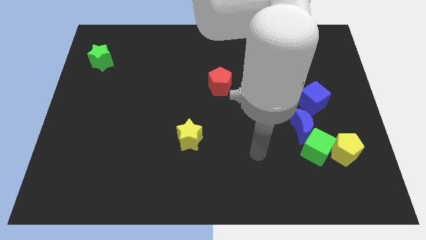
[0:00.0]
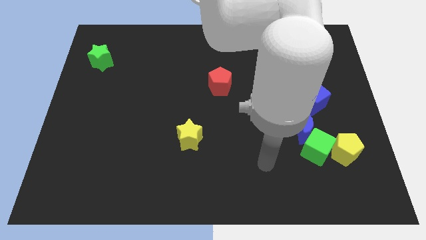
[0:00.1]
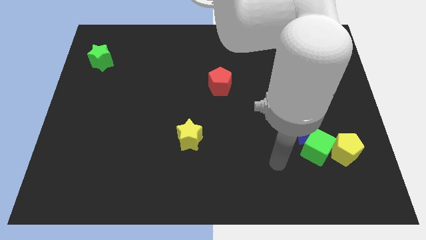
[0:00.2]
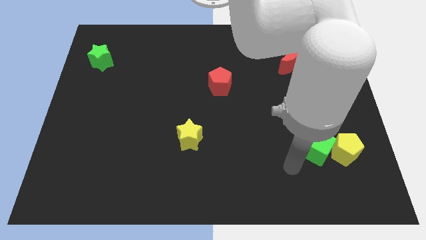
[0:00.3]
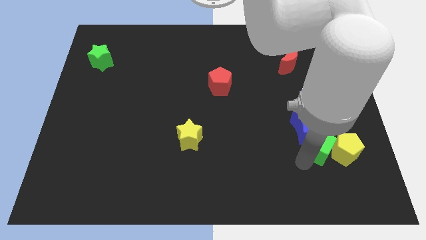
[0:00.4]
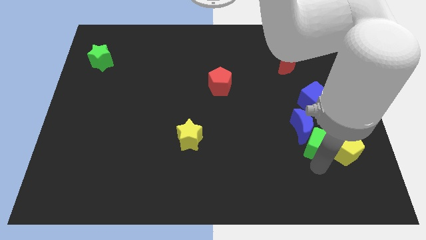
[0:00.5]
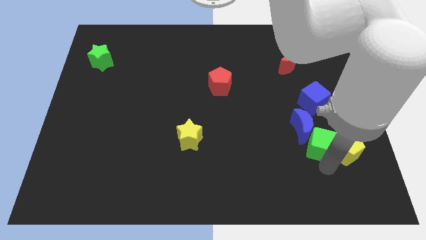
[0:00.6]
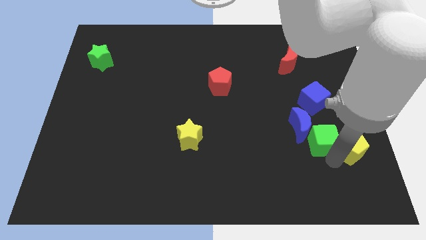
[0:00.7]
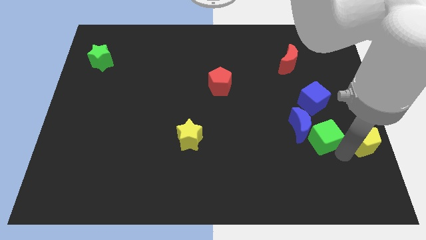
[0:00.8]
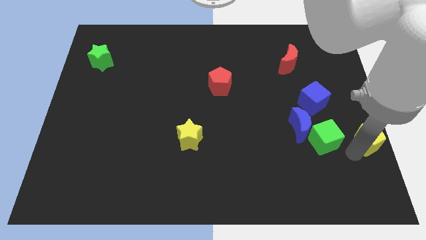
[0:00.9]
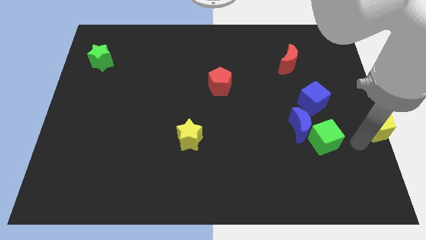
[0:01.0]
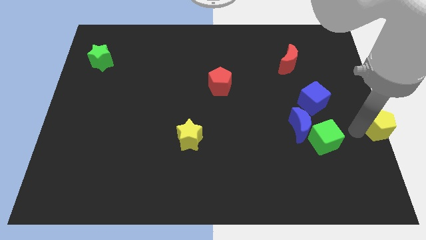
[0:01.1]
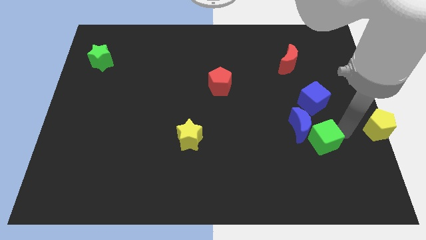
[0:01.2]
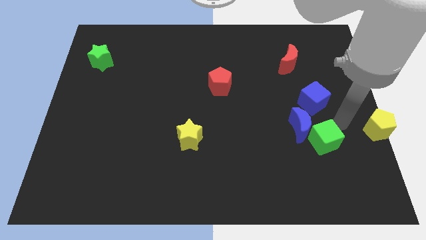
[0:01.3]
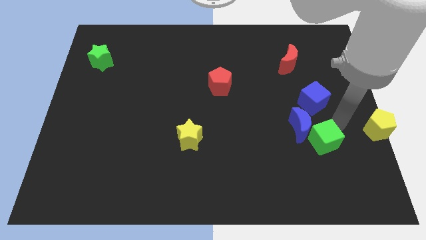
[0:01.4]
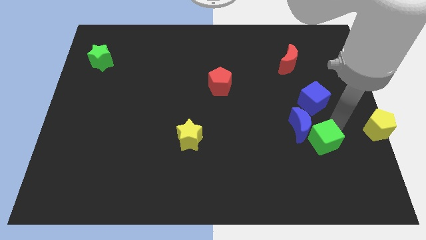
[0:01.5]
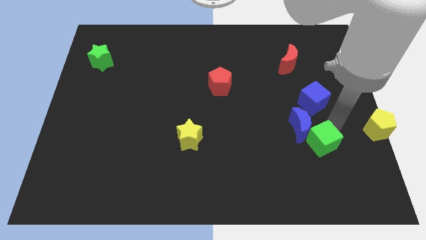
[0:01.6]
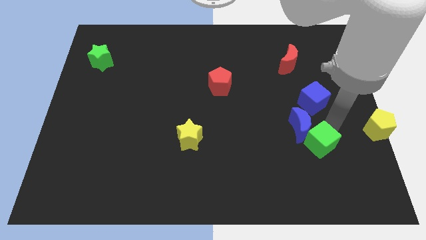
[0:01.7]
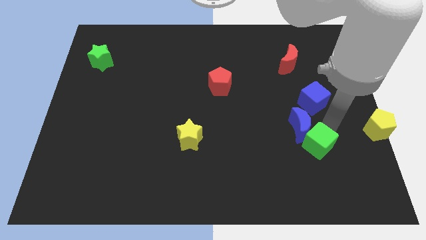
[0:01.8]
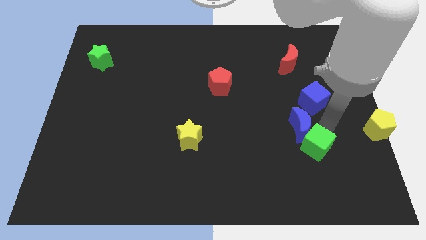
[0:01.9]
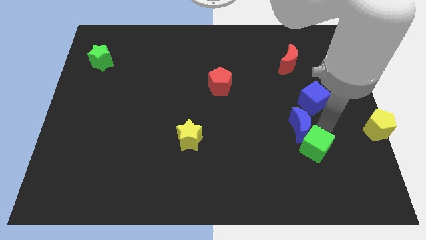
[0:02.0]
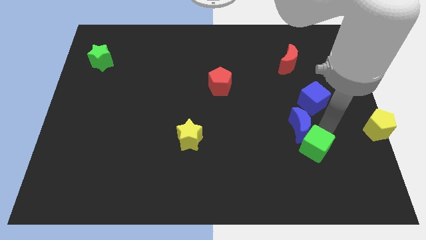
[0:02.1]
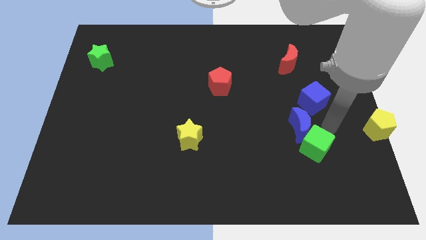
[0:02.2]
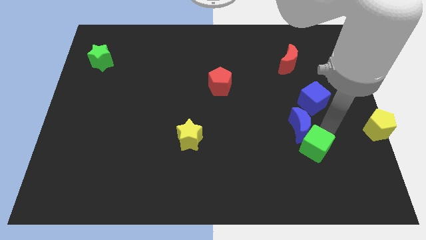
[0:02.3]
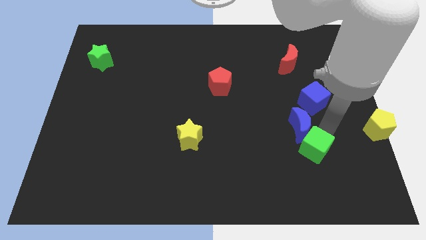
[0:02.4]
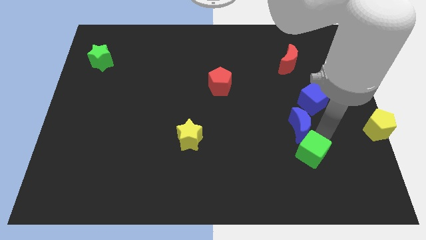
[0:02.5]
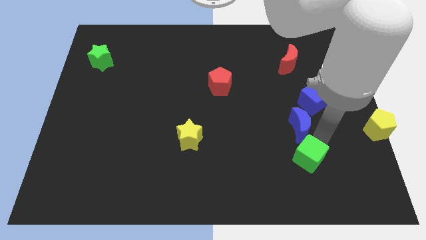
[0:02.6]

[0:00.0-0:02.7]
separate the green cube from the blue moon and yellow pentagon

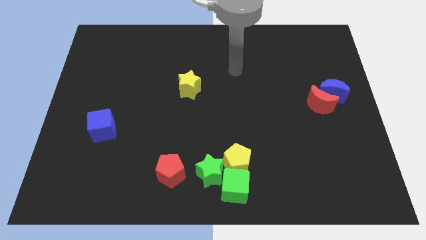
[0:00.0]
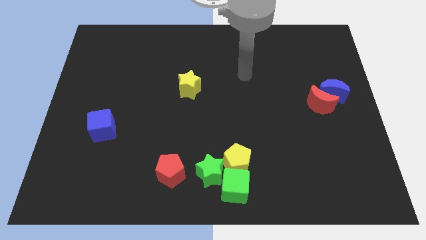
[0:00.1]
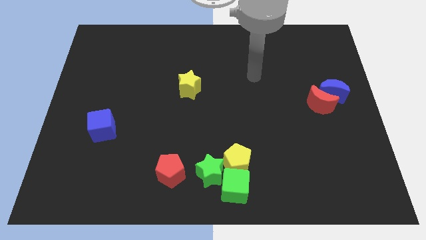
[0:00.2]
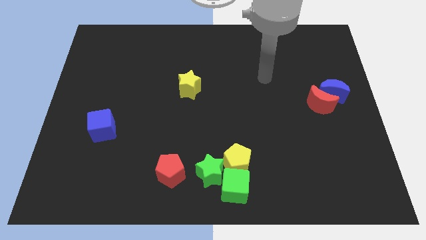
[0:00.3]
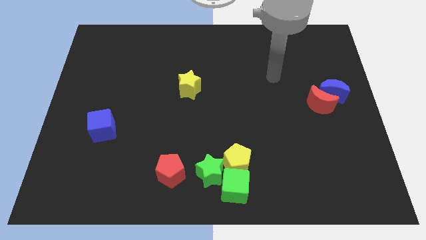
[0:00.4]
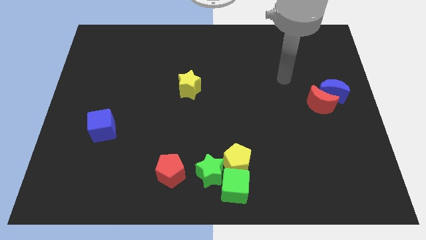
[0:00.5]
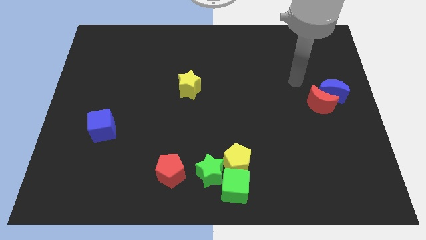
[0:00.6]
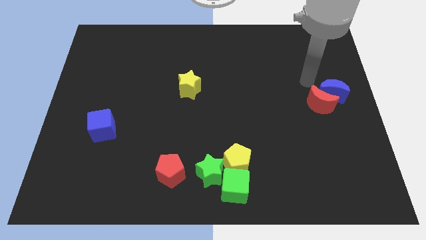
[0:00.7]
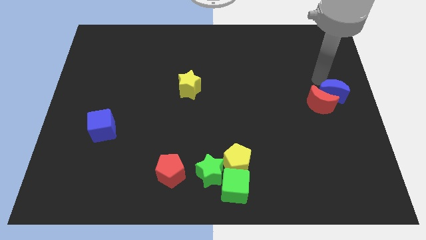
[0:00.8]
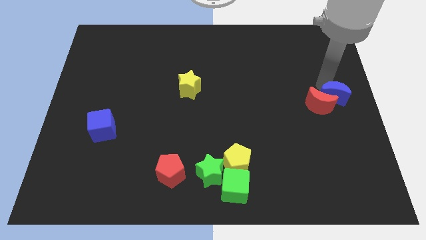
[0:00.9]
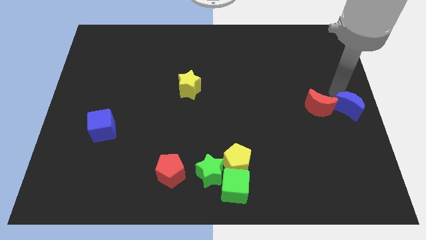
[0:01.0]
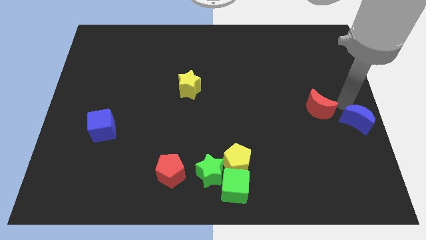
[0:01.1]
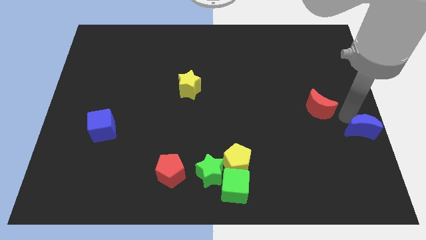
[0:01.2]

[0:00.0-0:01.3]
pull the red moon apart from the blue moon

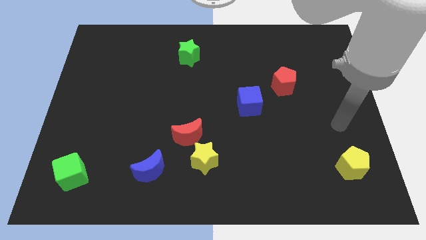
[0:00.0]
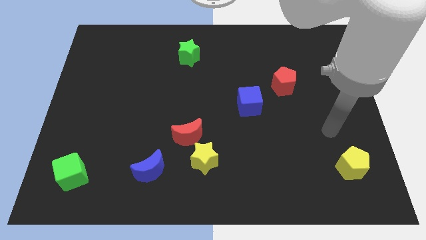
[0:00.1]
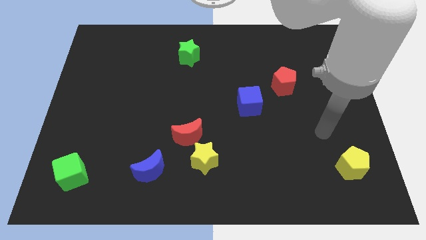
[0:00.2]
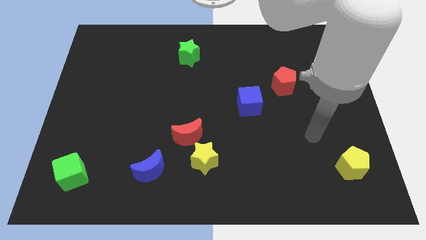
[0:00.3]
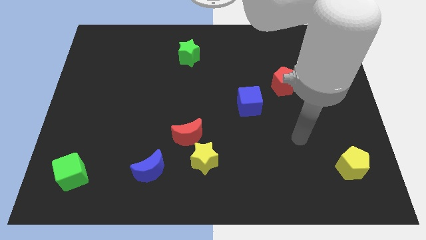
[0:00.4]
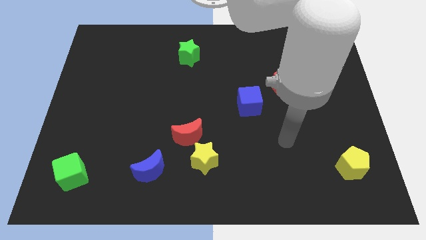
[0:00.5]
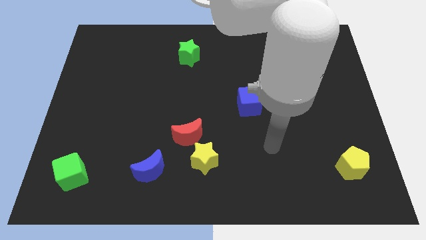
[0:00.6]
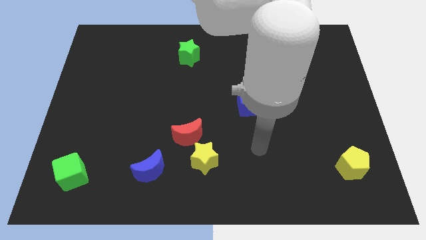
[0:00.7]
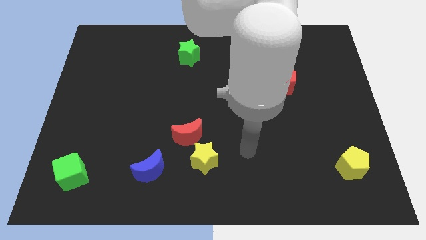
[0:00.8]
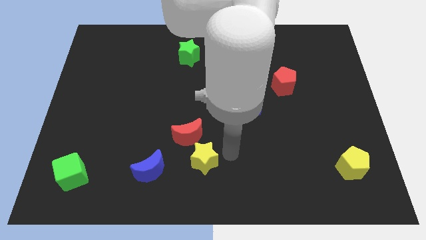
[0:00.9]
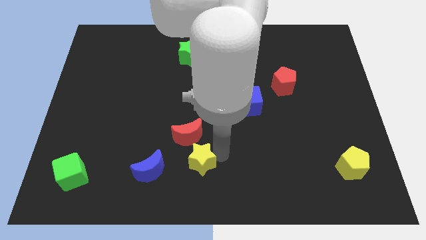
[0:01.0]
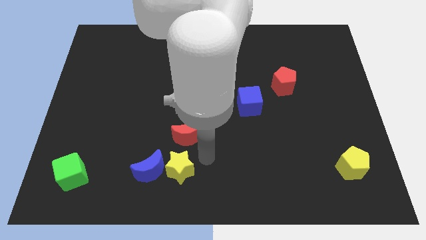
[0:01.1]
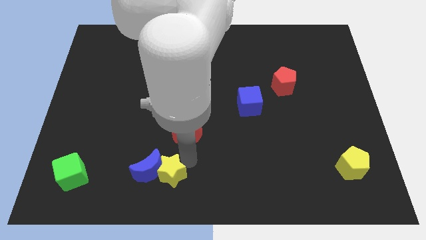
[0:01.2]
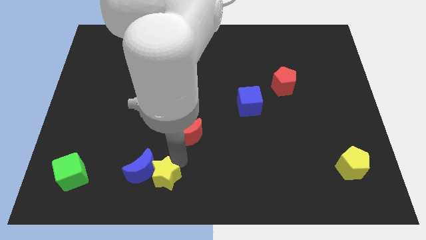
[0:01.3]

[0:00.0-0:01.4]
separate the red moon from the yellow star

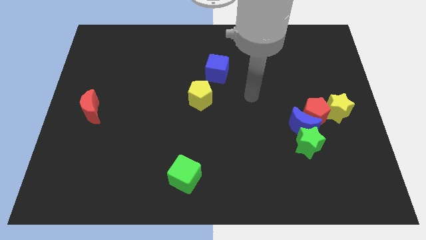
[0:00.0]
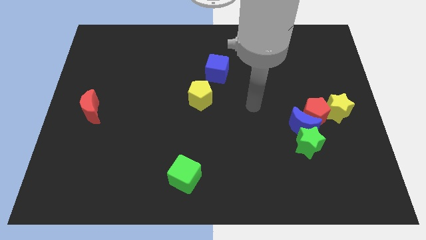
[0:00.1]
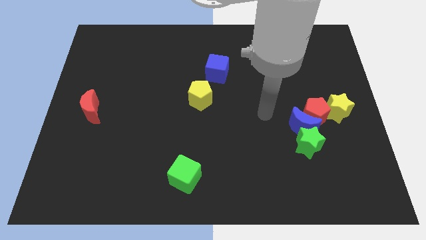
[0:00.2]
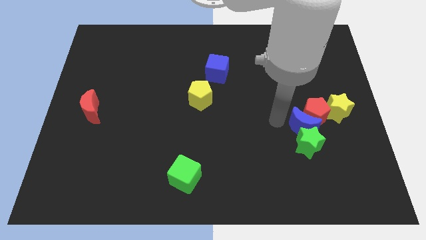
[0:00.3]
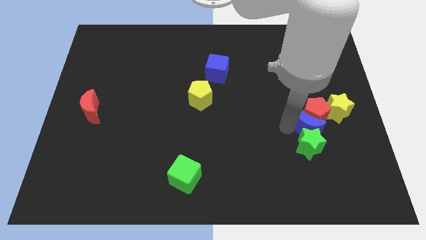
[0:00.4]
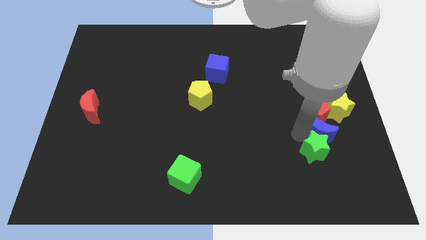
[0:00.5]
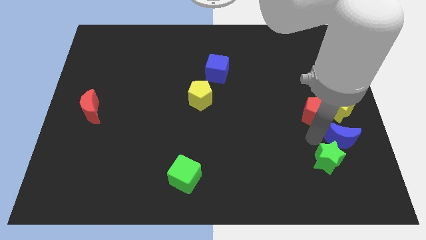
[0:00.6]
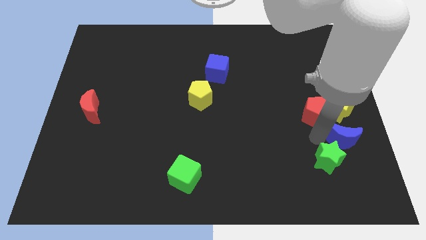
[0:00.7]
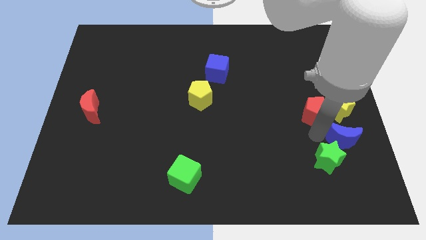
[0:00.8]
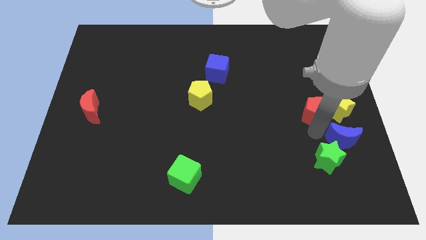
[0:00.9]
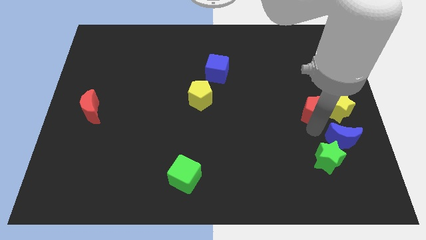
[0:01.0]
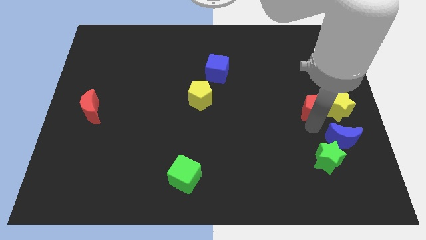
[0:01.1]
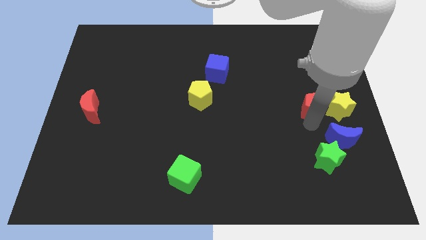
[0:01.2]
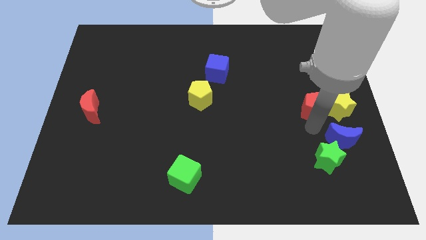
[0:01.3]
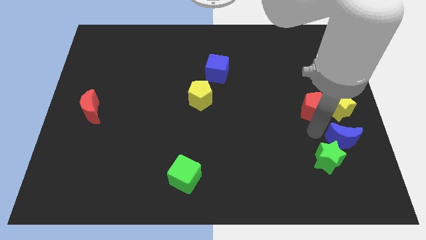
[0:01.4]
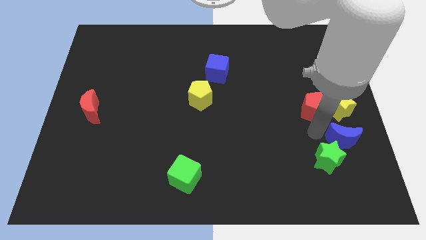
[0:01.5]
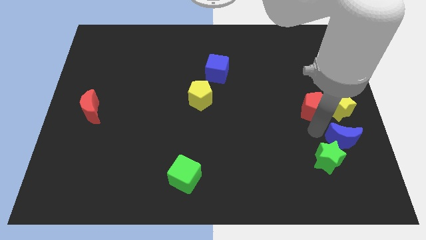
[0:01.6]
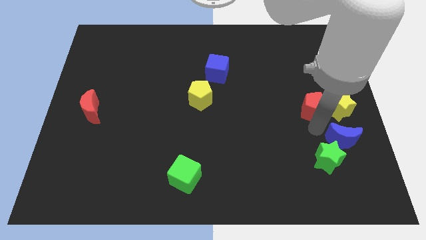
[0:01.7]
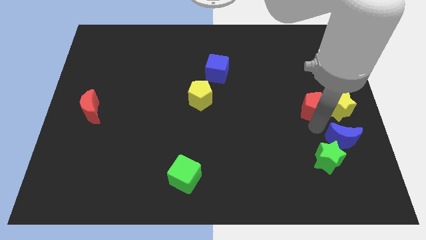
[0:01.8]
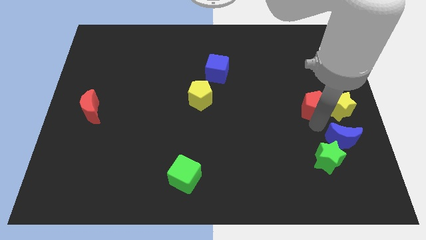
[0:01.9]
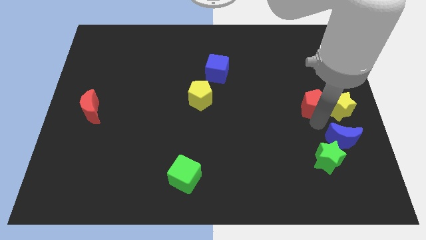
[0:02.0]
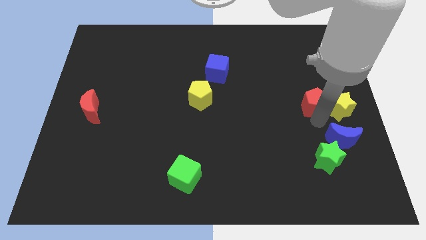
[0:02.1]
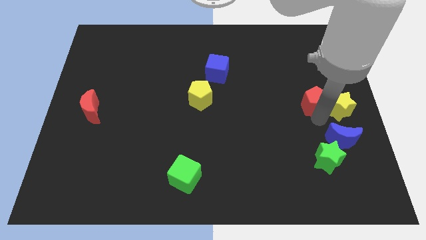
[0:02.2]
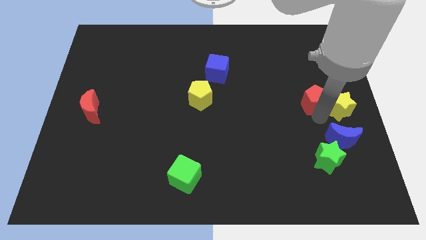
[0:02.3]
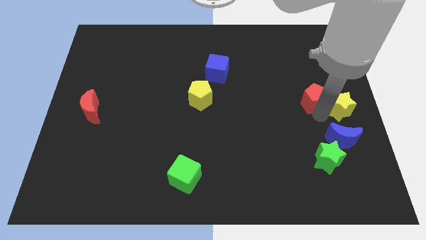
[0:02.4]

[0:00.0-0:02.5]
pull the red pentagon apart from the group

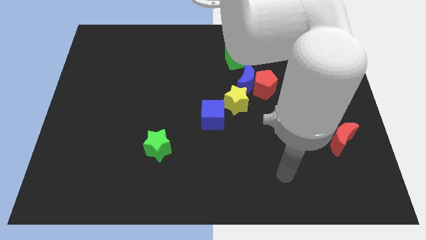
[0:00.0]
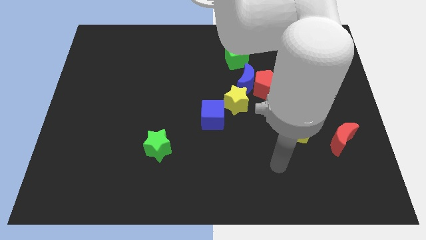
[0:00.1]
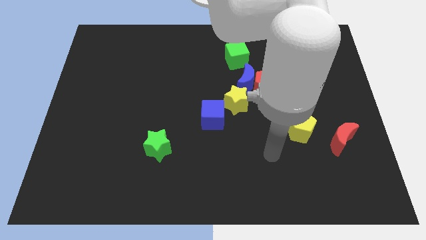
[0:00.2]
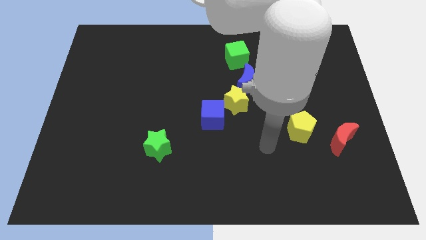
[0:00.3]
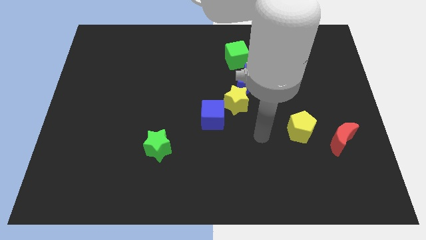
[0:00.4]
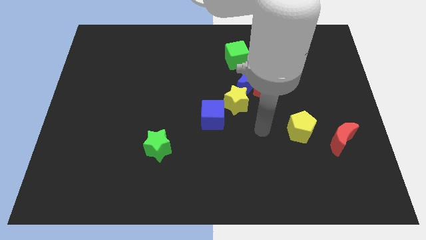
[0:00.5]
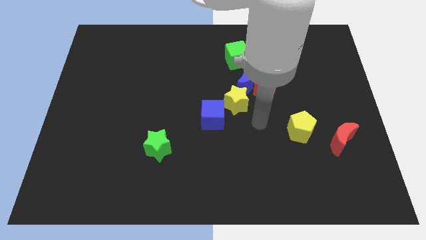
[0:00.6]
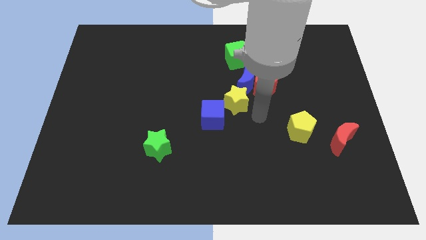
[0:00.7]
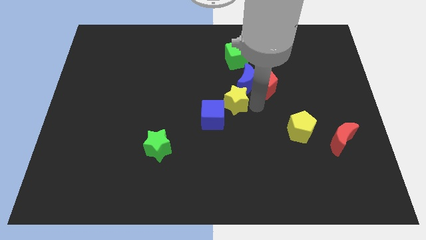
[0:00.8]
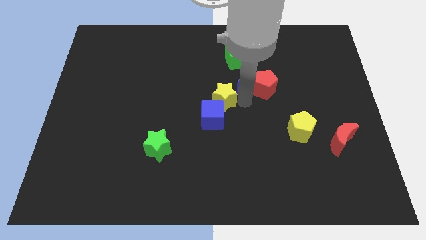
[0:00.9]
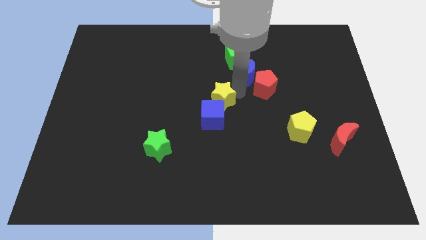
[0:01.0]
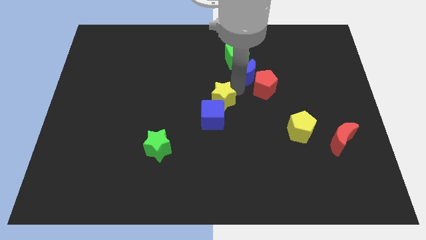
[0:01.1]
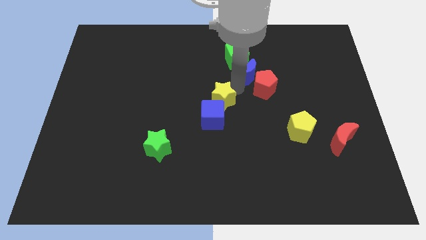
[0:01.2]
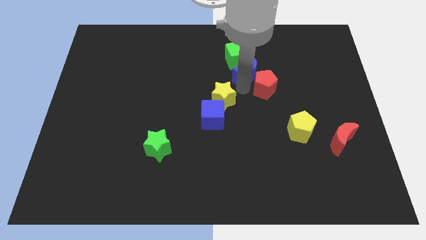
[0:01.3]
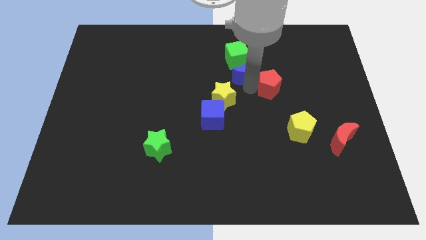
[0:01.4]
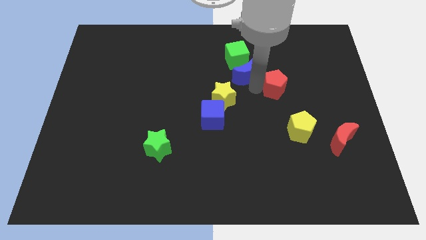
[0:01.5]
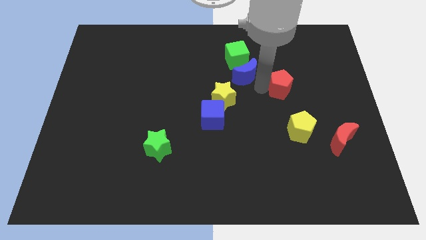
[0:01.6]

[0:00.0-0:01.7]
separate the red pentagon from the blue moon and yellow star
